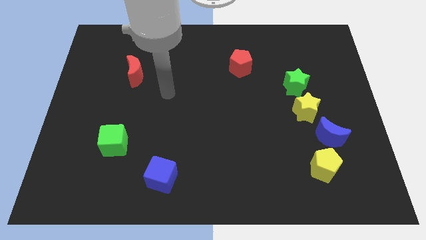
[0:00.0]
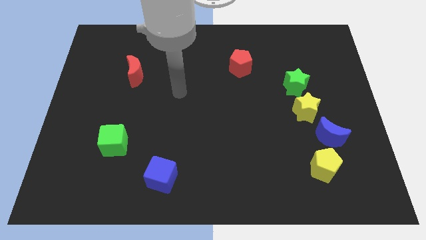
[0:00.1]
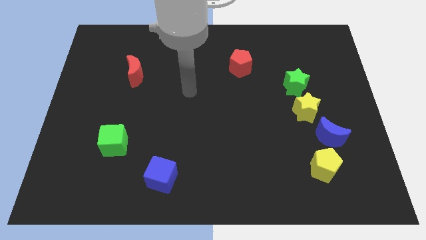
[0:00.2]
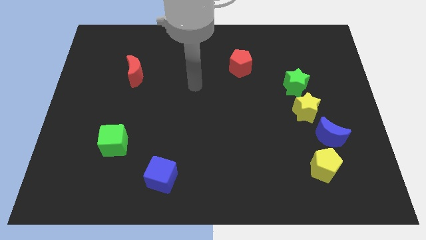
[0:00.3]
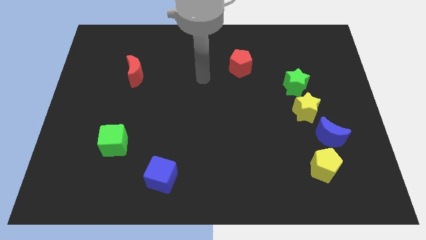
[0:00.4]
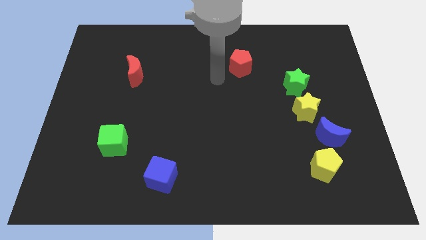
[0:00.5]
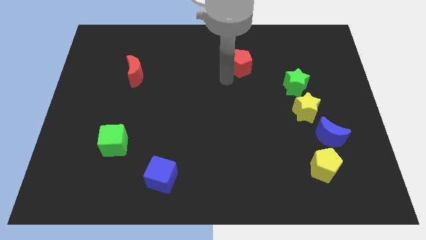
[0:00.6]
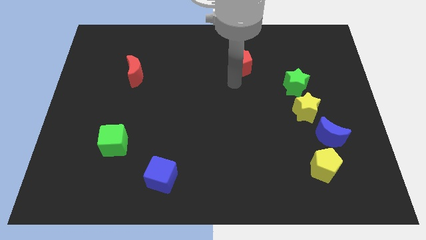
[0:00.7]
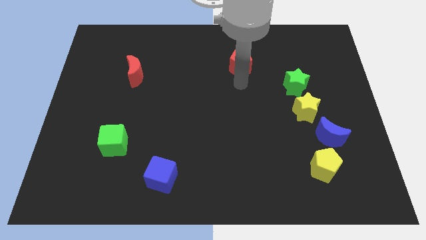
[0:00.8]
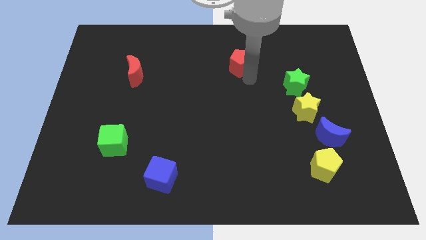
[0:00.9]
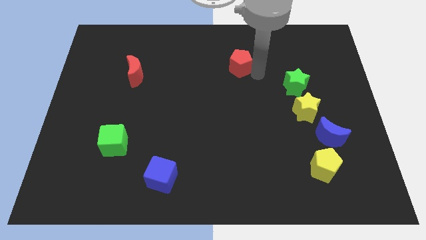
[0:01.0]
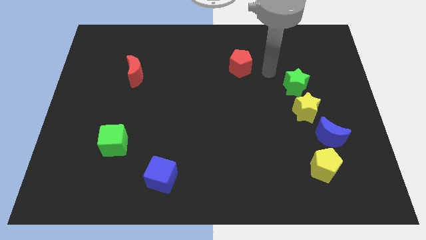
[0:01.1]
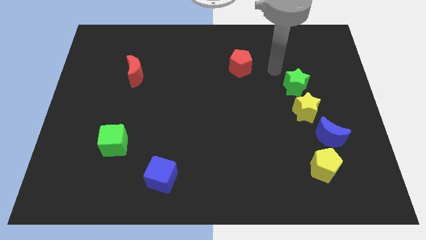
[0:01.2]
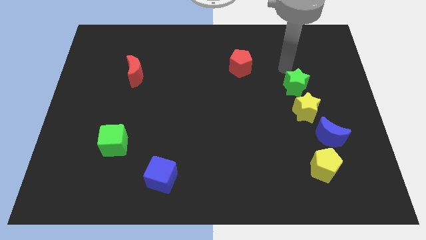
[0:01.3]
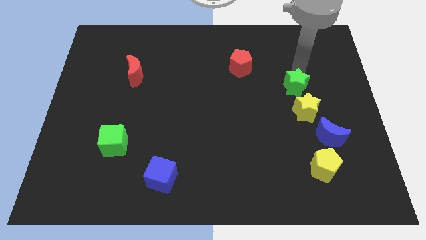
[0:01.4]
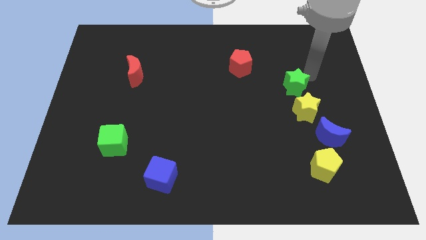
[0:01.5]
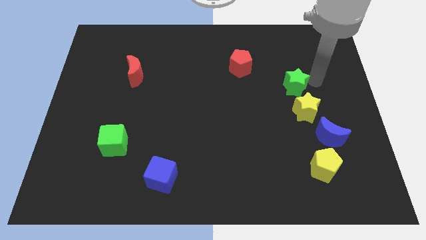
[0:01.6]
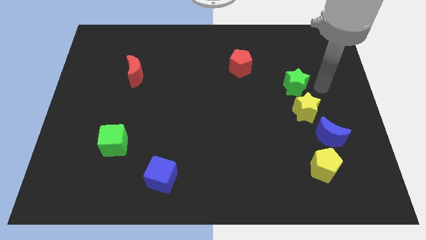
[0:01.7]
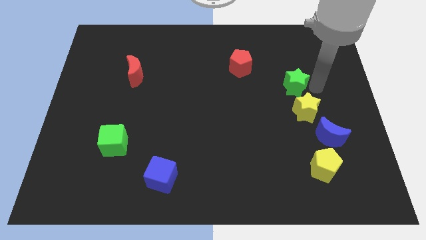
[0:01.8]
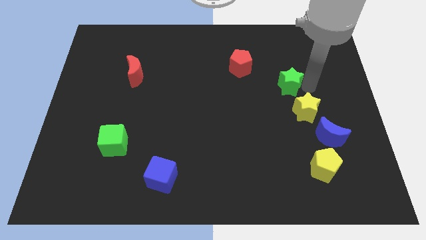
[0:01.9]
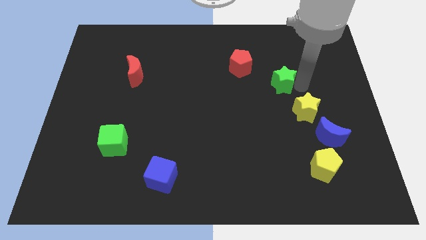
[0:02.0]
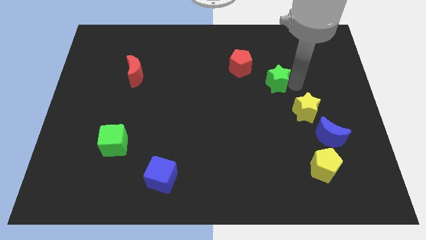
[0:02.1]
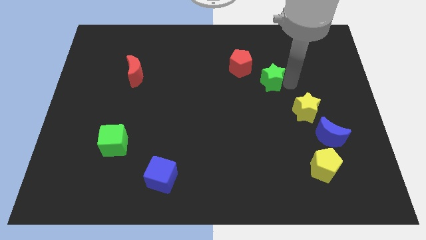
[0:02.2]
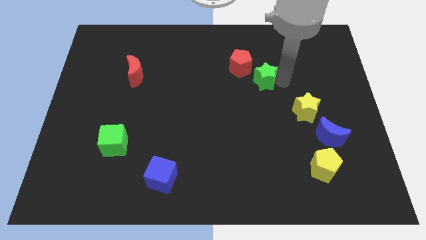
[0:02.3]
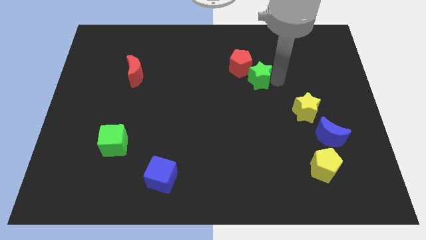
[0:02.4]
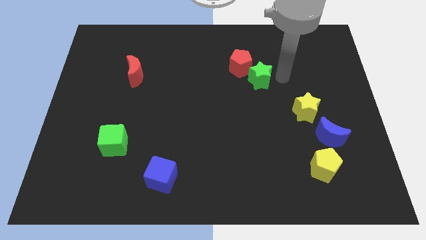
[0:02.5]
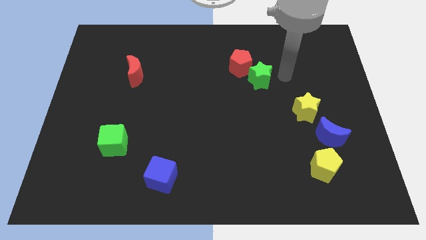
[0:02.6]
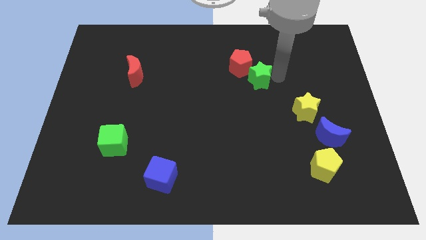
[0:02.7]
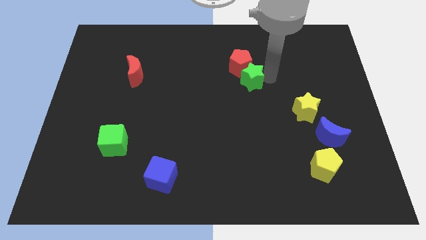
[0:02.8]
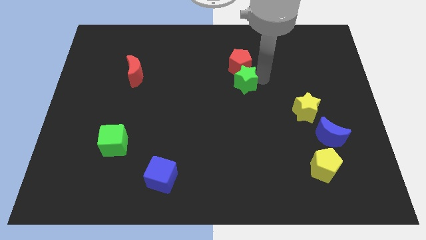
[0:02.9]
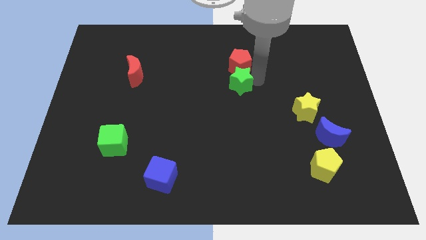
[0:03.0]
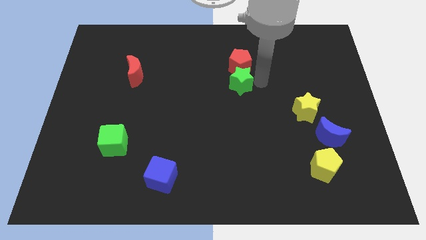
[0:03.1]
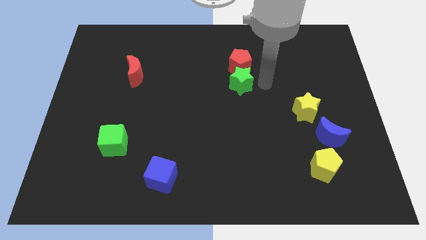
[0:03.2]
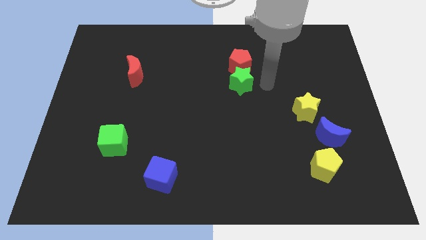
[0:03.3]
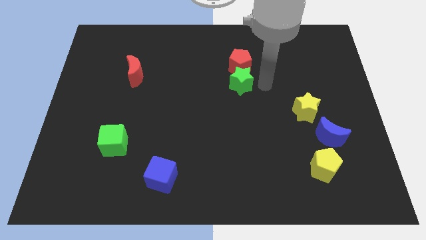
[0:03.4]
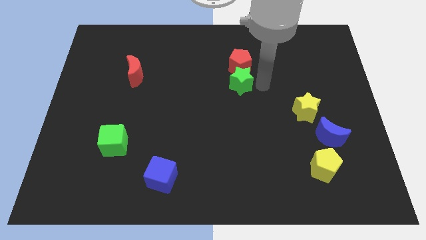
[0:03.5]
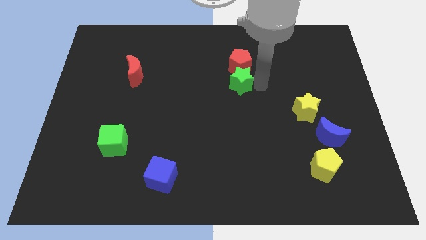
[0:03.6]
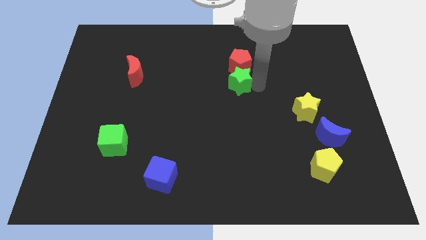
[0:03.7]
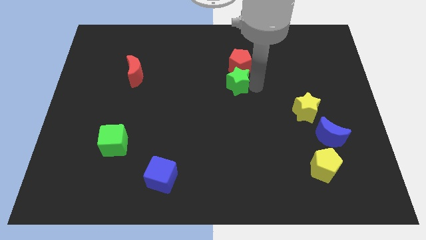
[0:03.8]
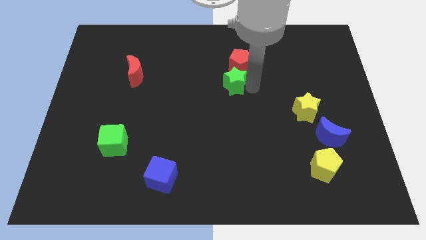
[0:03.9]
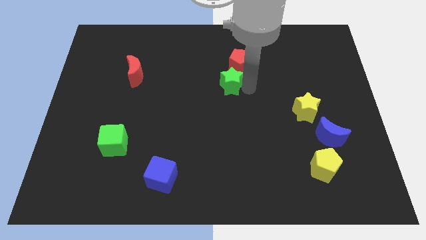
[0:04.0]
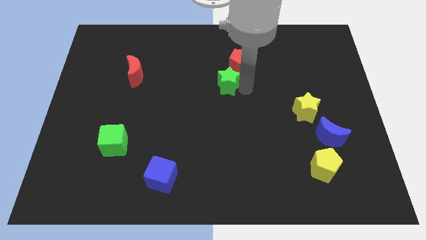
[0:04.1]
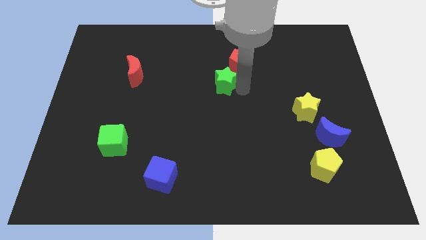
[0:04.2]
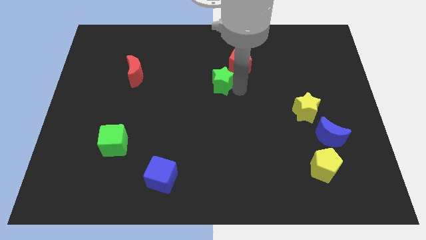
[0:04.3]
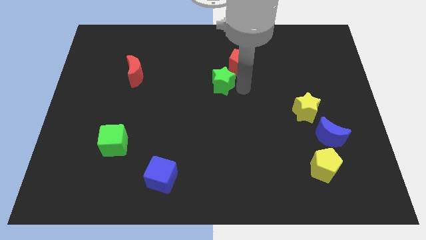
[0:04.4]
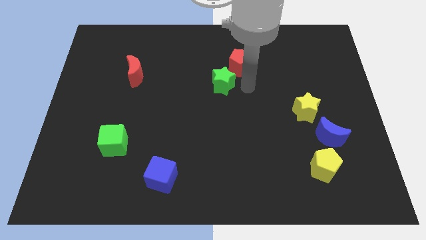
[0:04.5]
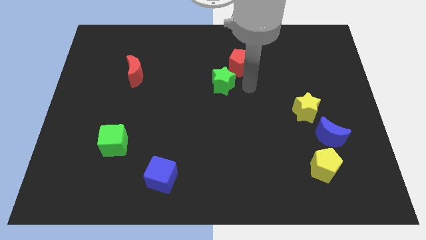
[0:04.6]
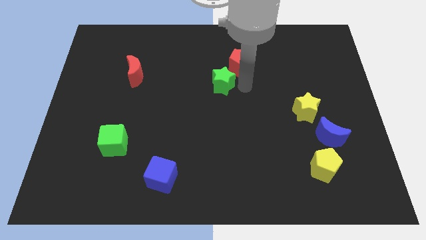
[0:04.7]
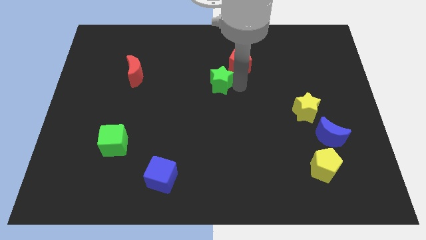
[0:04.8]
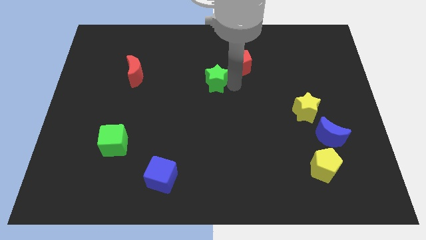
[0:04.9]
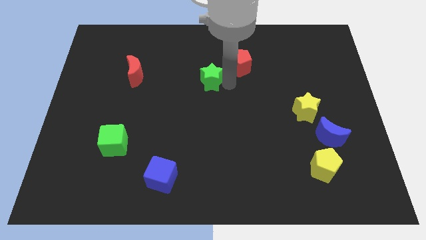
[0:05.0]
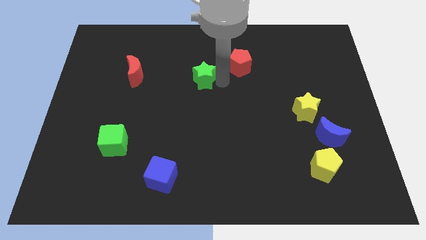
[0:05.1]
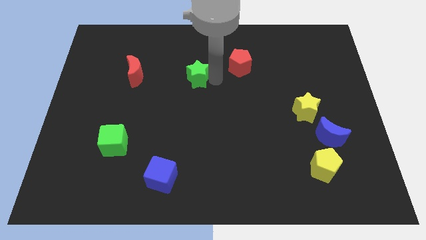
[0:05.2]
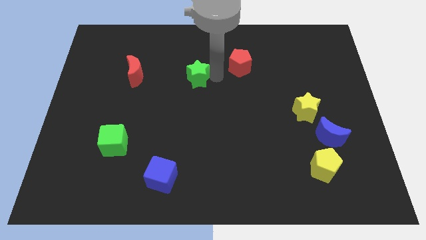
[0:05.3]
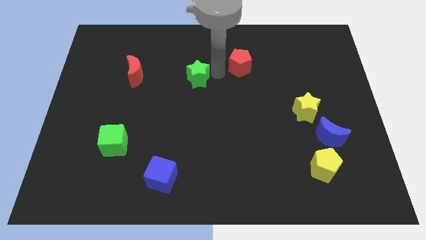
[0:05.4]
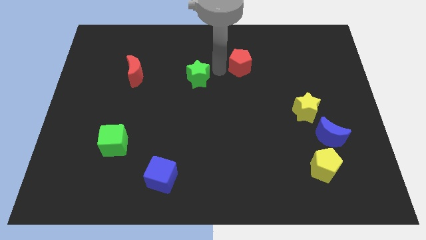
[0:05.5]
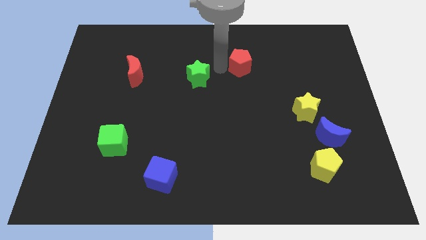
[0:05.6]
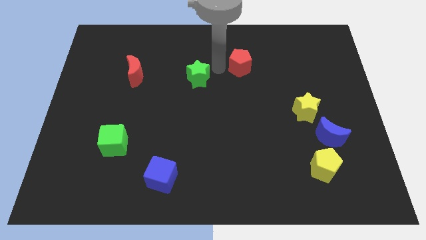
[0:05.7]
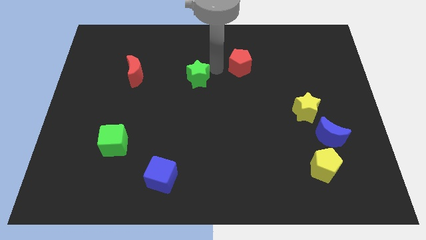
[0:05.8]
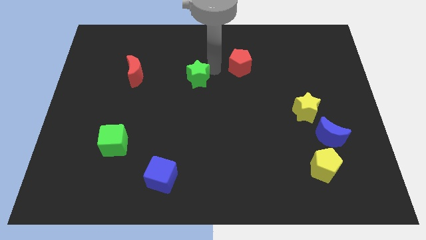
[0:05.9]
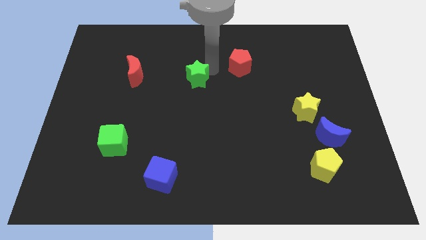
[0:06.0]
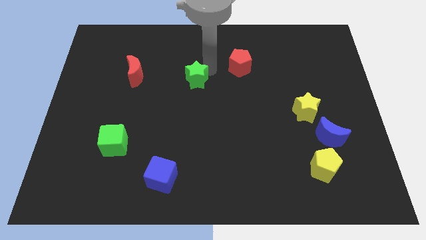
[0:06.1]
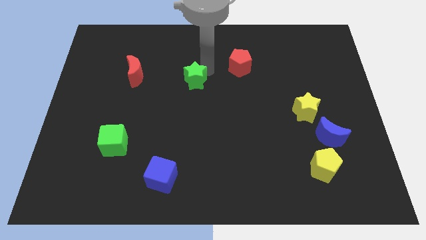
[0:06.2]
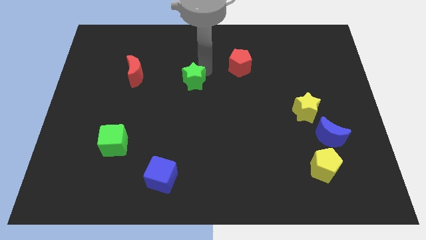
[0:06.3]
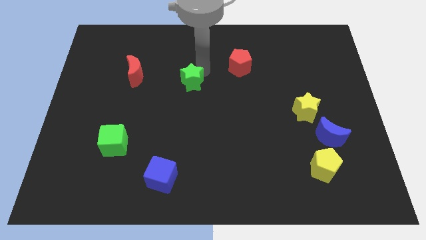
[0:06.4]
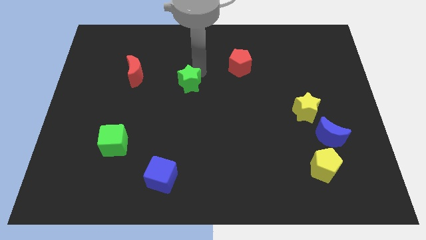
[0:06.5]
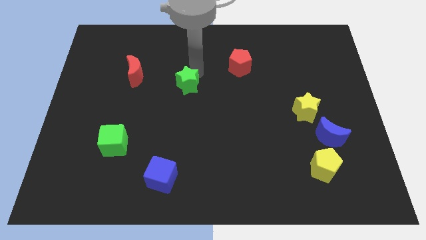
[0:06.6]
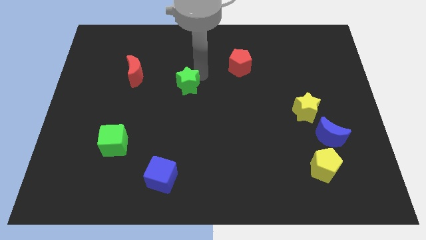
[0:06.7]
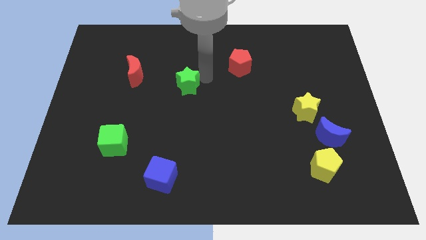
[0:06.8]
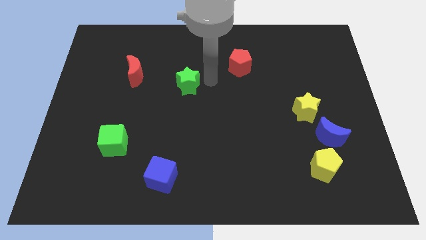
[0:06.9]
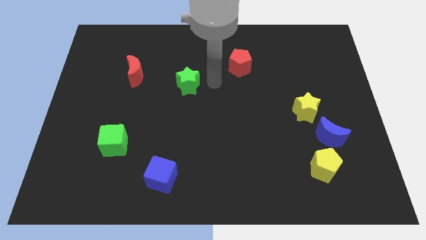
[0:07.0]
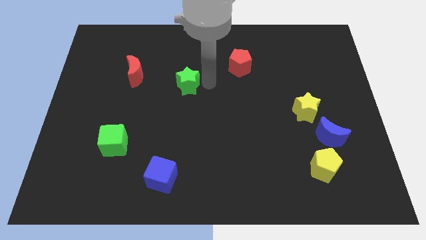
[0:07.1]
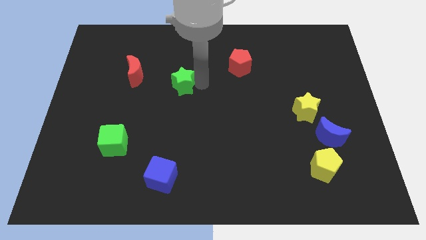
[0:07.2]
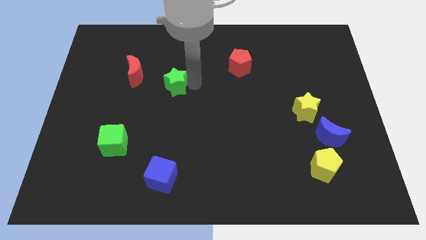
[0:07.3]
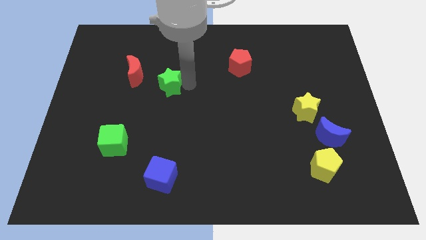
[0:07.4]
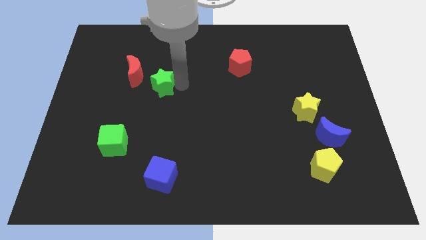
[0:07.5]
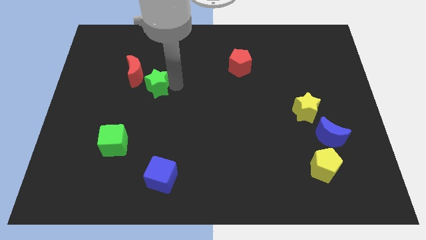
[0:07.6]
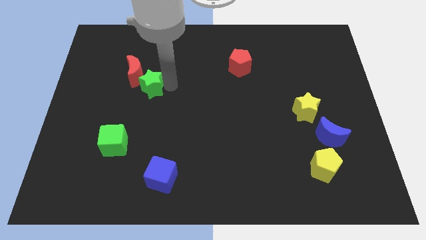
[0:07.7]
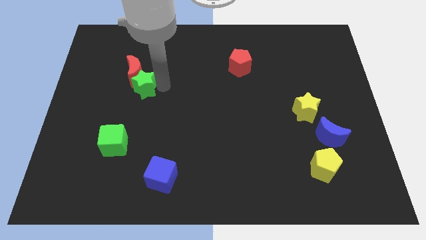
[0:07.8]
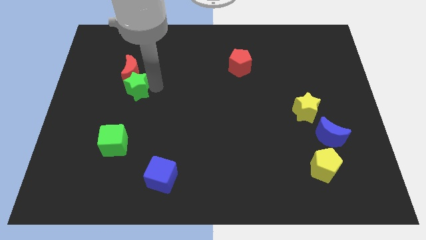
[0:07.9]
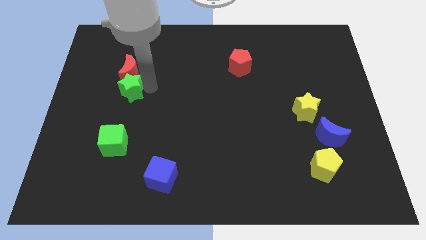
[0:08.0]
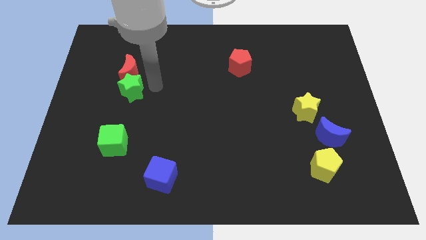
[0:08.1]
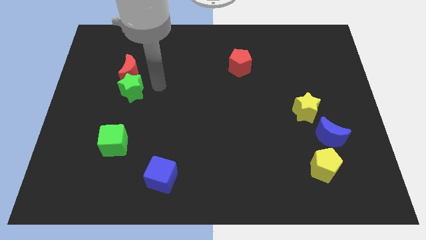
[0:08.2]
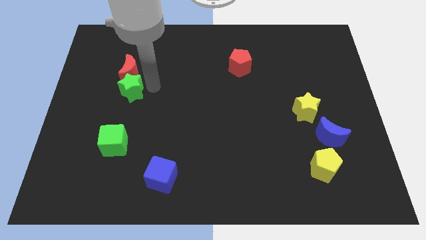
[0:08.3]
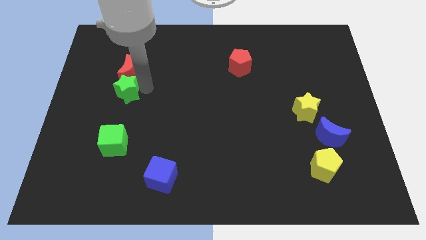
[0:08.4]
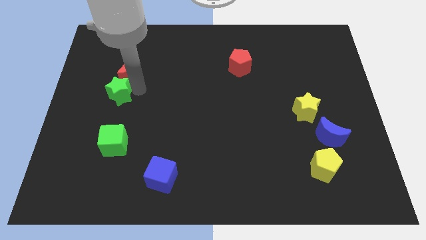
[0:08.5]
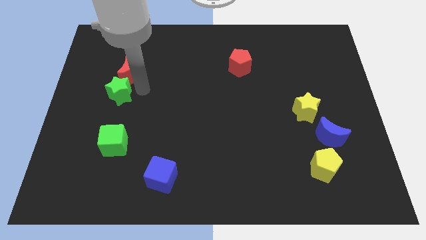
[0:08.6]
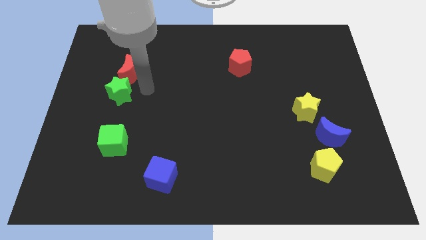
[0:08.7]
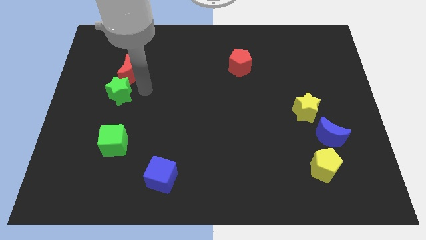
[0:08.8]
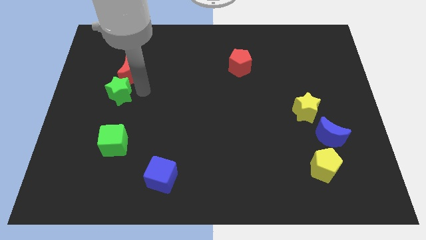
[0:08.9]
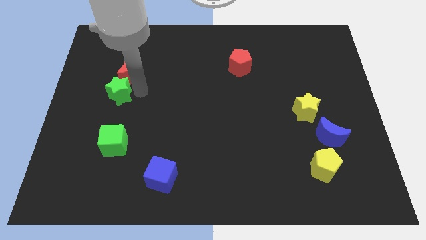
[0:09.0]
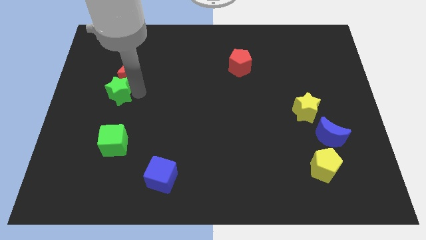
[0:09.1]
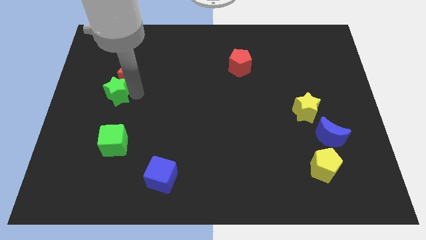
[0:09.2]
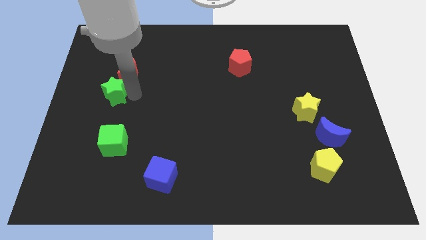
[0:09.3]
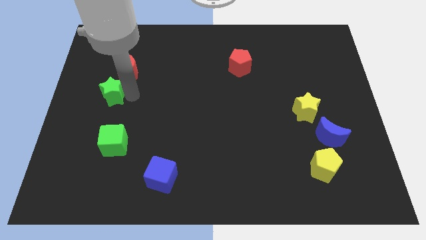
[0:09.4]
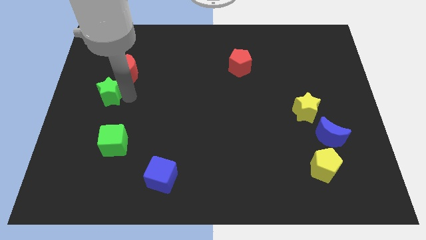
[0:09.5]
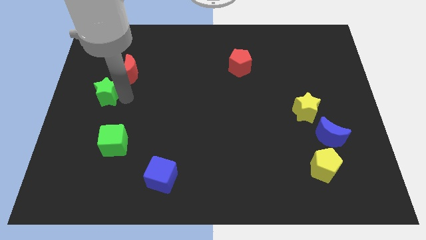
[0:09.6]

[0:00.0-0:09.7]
move the green star to the left side
